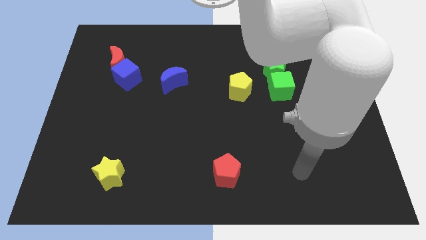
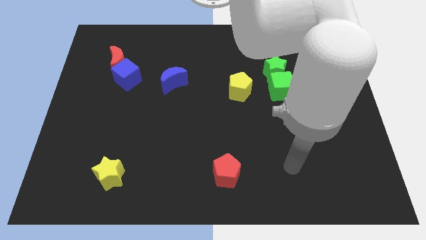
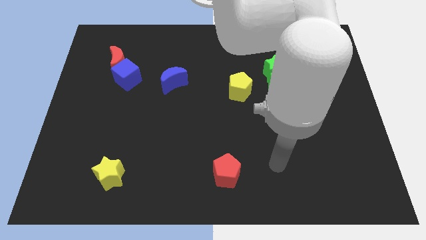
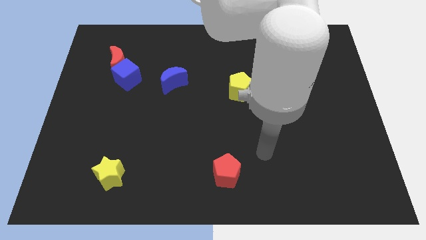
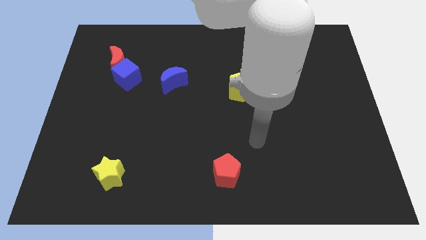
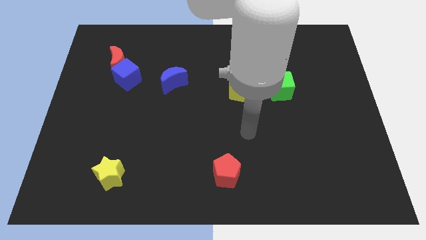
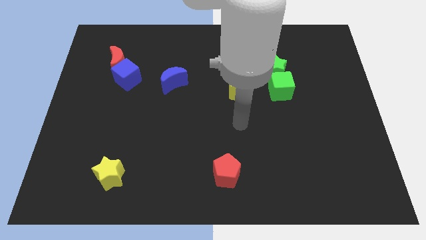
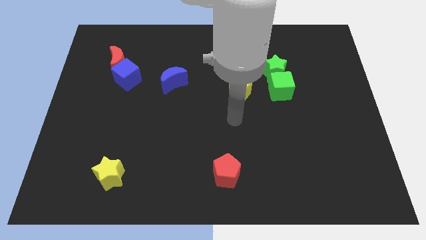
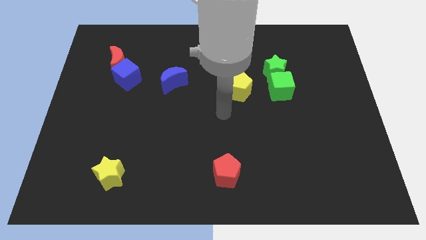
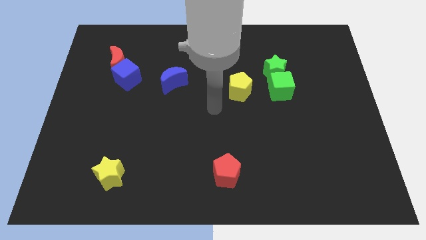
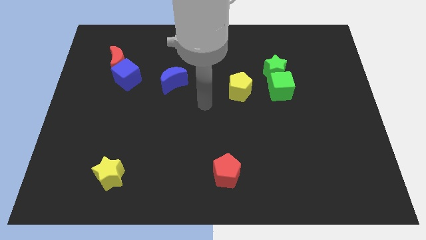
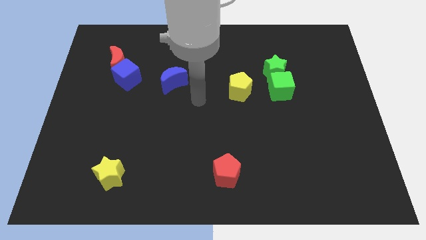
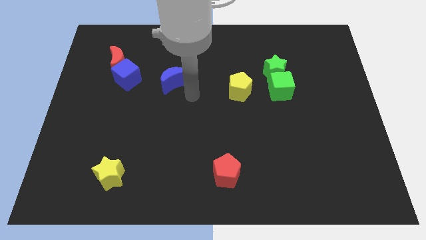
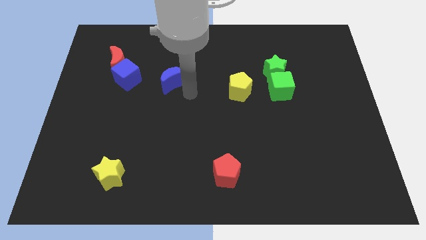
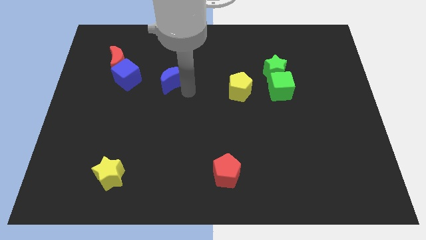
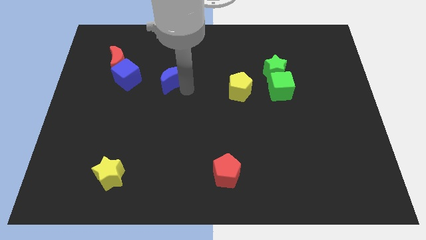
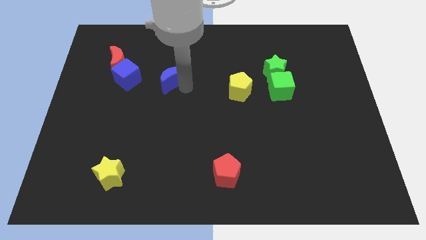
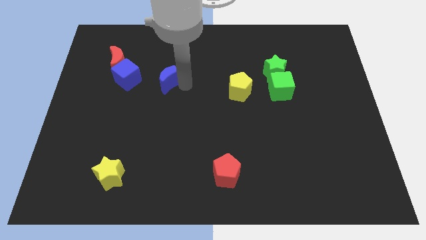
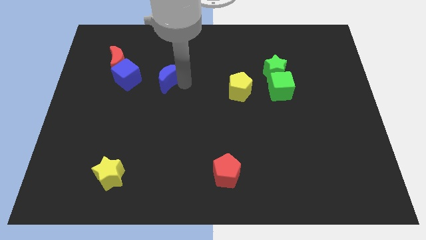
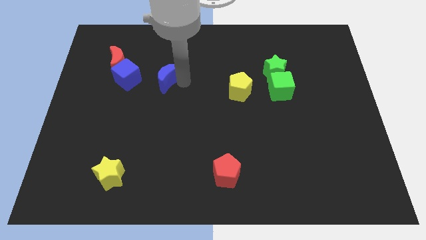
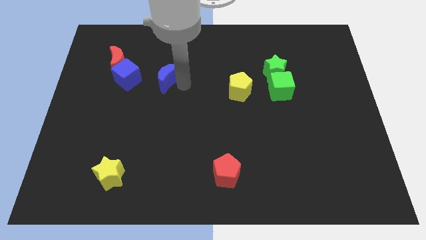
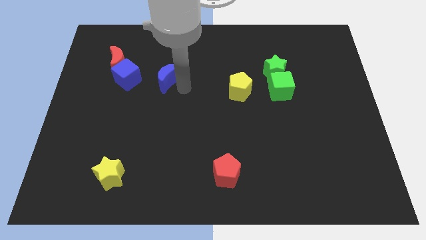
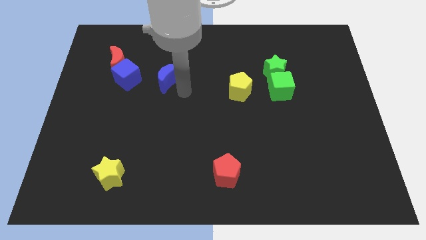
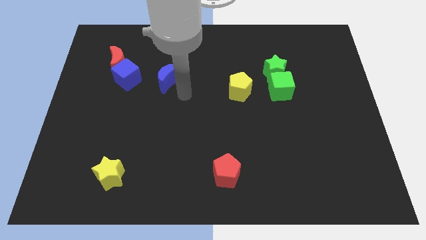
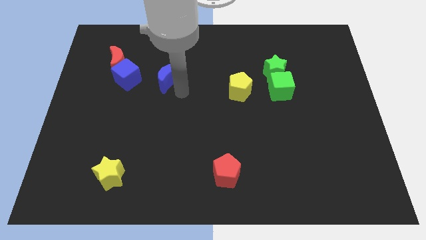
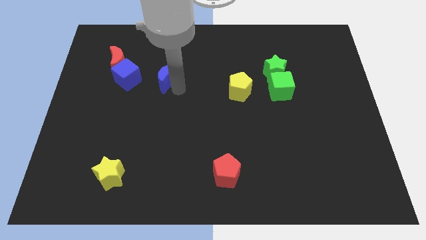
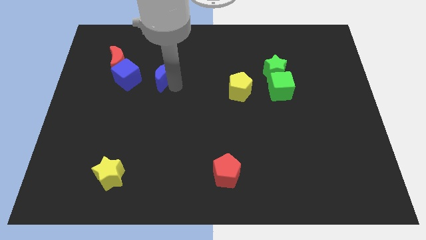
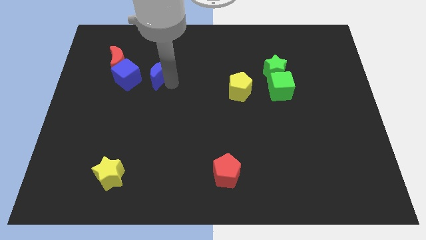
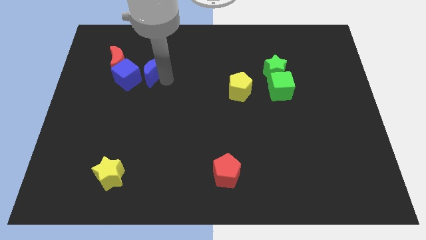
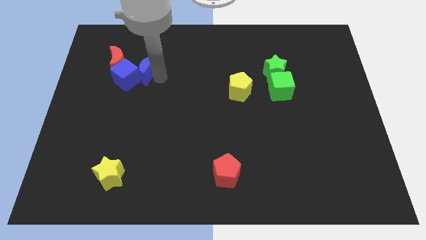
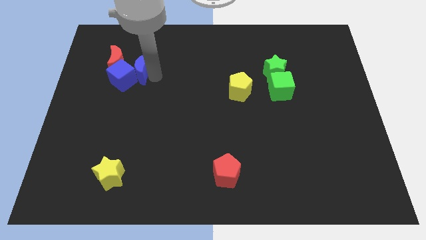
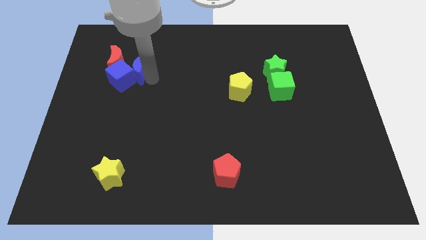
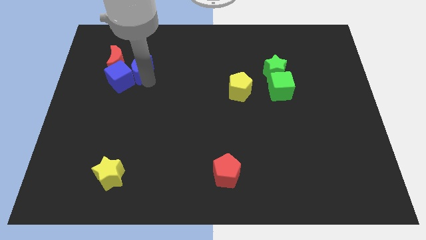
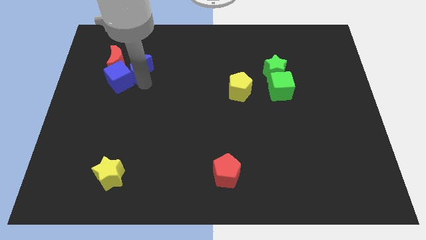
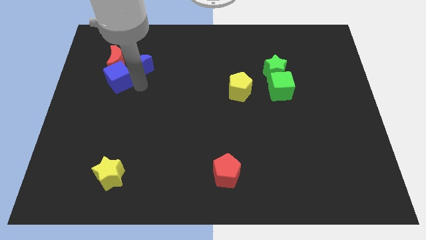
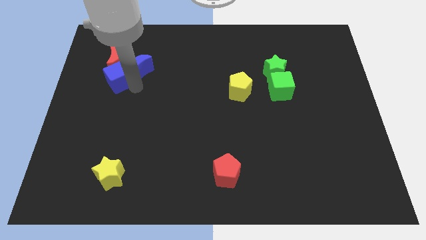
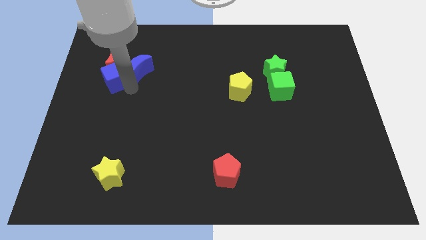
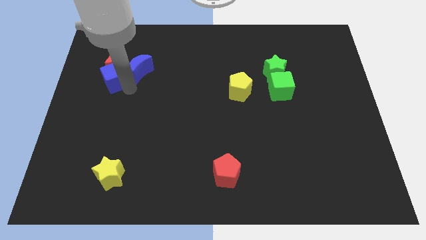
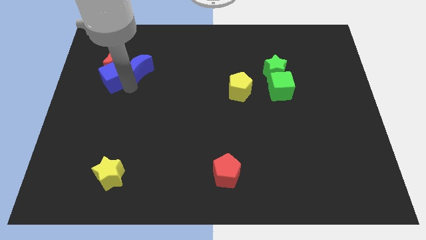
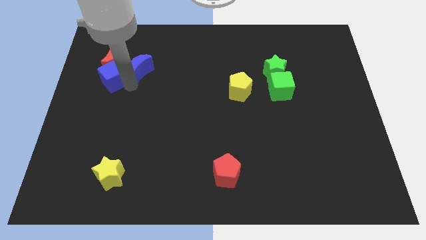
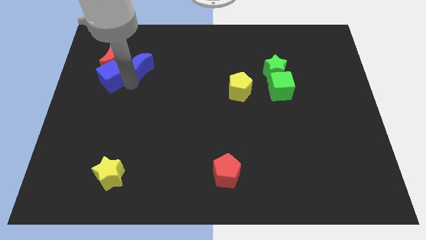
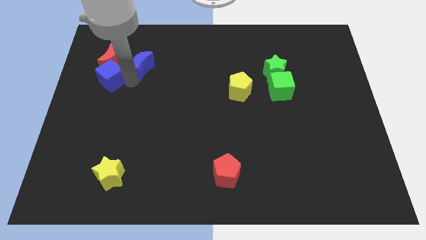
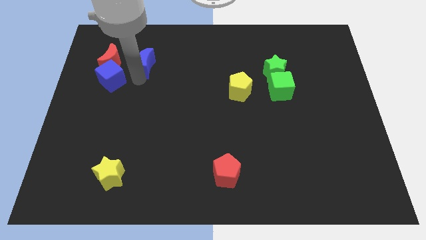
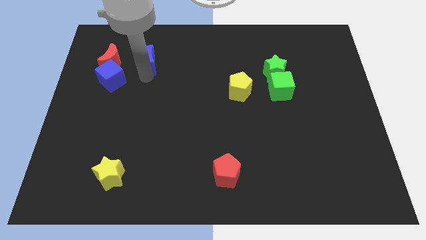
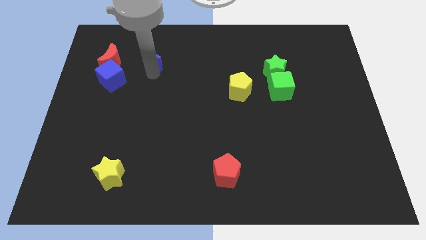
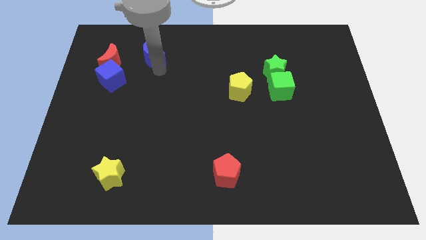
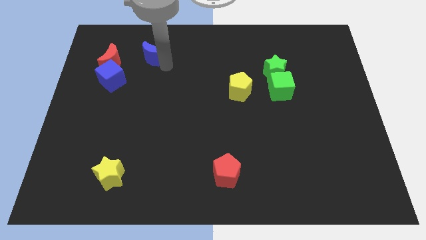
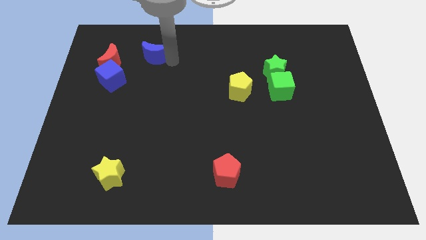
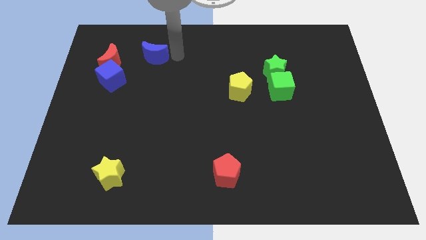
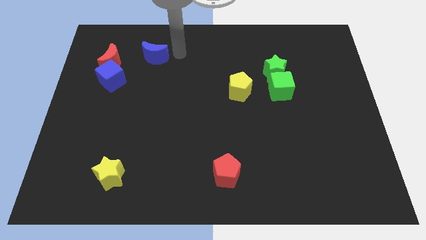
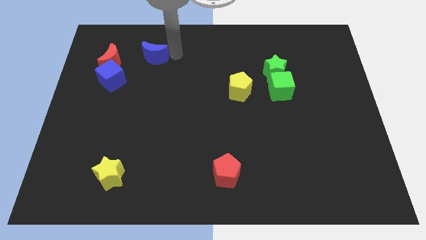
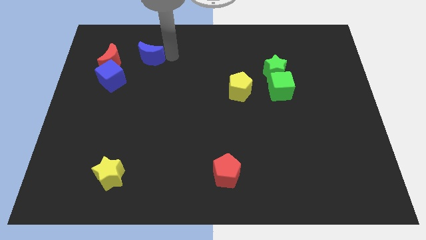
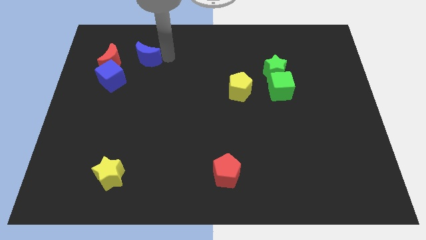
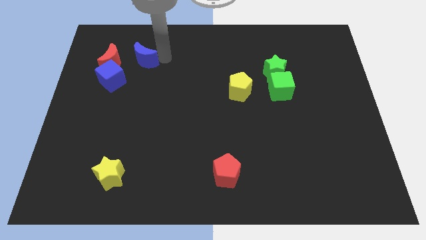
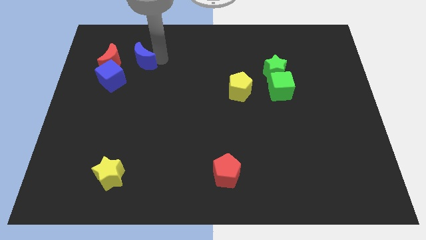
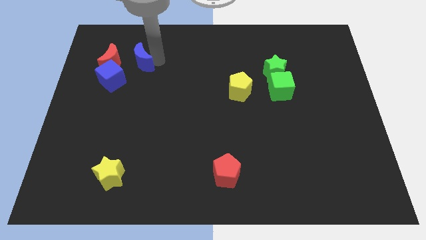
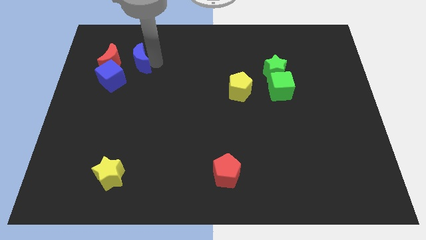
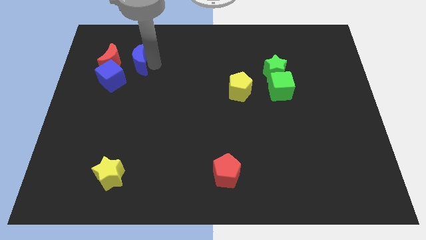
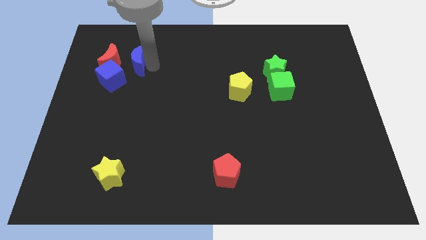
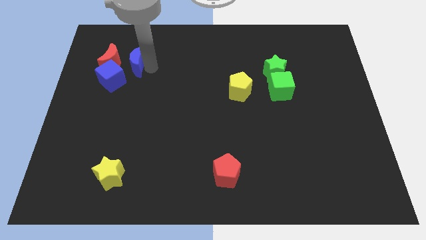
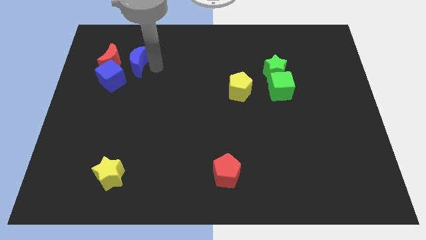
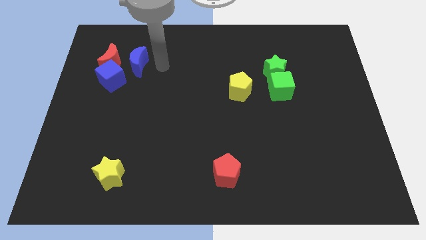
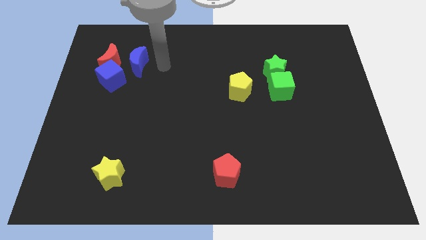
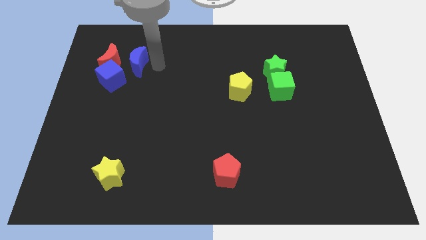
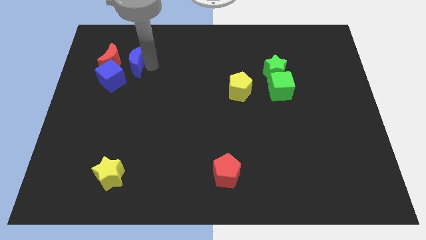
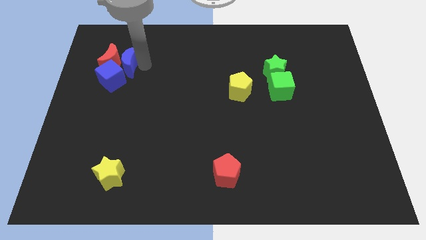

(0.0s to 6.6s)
put the blue moon next to the red moon
